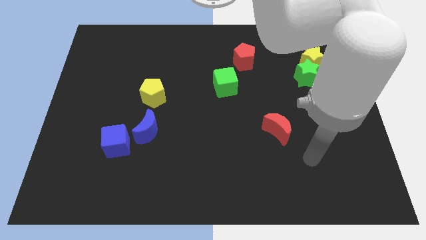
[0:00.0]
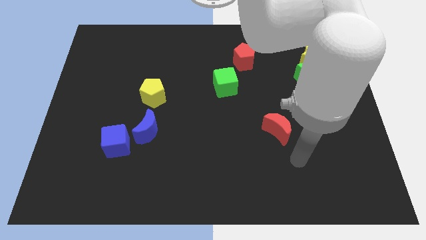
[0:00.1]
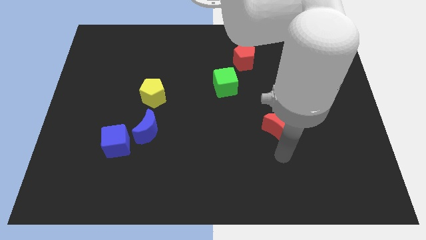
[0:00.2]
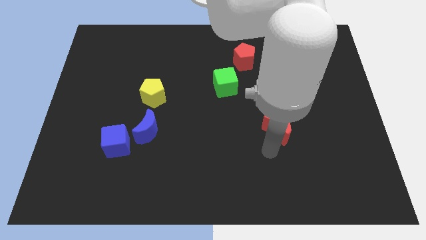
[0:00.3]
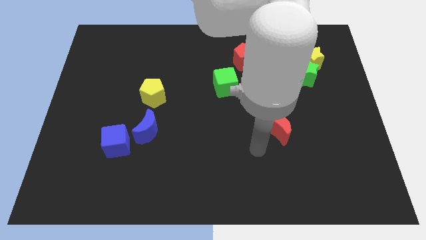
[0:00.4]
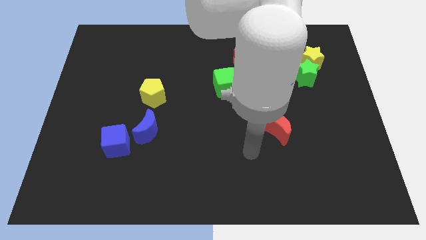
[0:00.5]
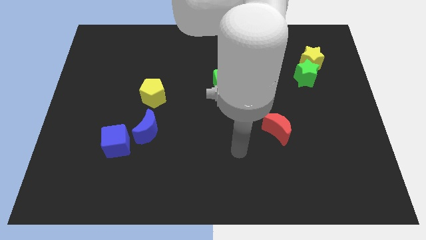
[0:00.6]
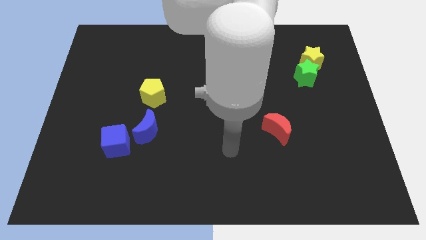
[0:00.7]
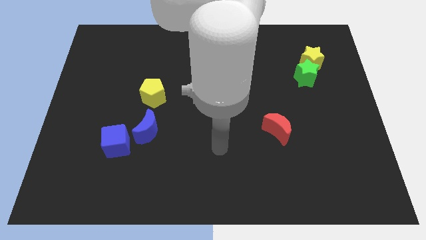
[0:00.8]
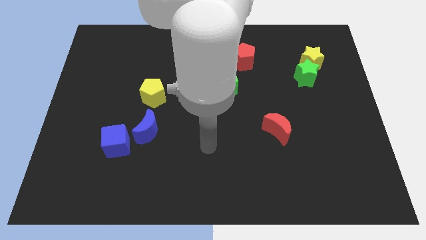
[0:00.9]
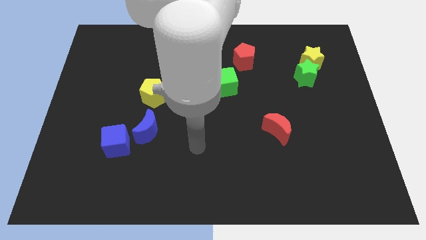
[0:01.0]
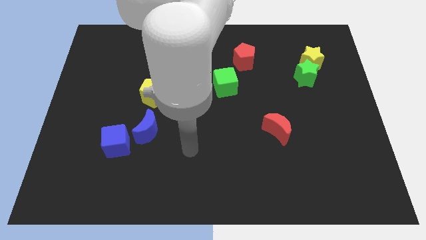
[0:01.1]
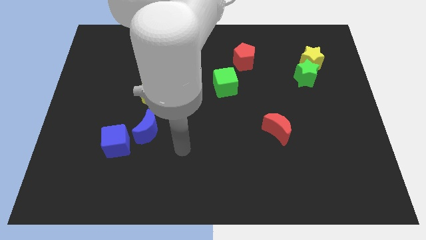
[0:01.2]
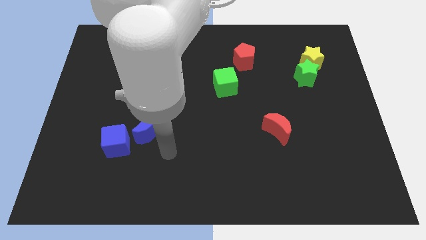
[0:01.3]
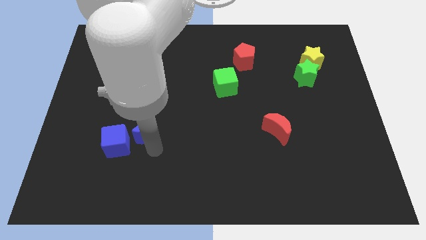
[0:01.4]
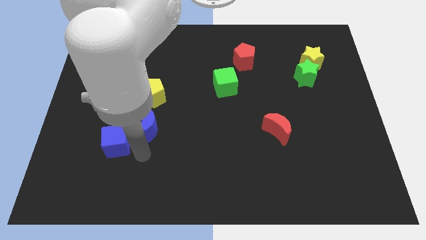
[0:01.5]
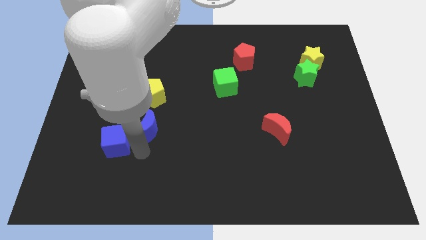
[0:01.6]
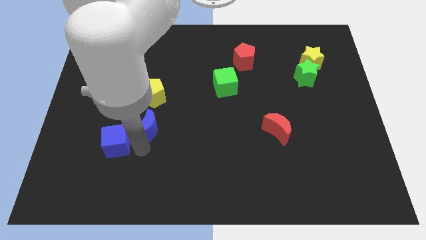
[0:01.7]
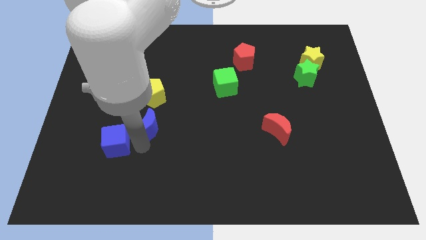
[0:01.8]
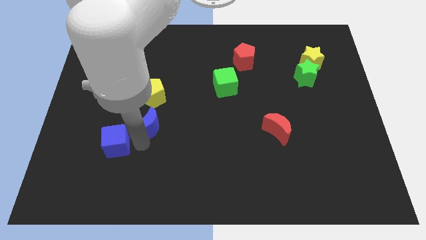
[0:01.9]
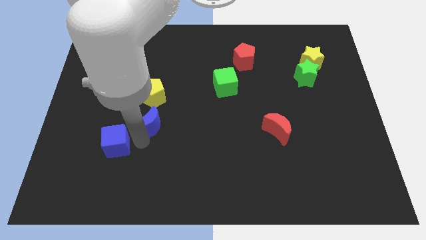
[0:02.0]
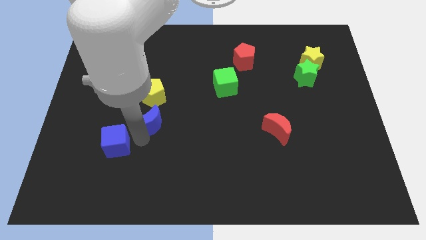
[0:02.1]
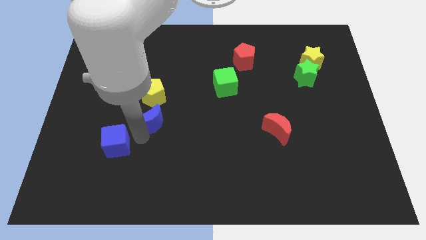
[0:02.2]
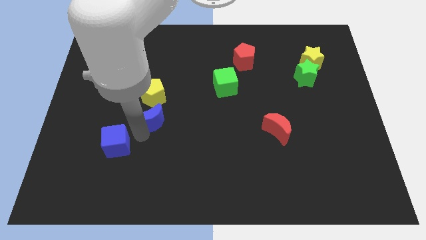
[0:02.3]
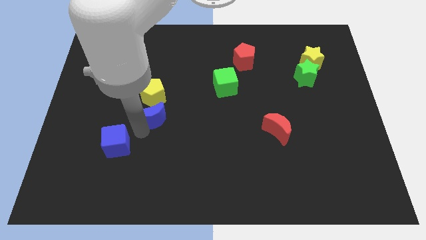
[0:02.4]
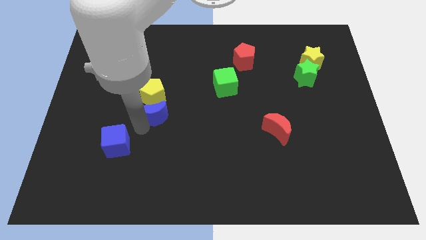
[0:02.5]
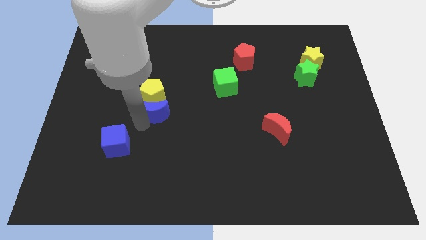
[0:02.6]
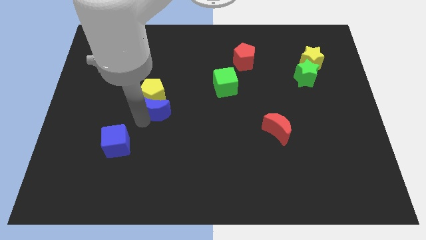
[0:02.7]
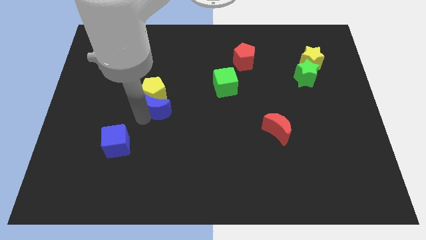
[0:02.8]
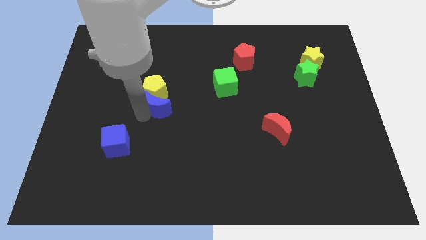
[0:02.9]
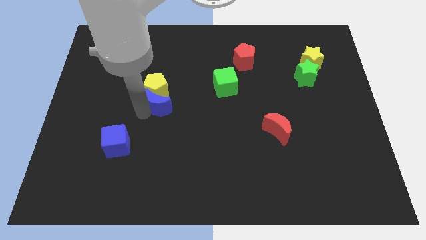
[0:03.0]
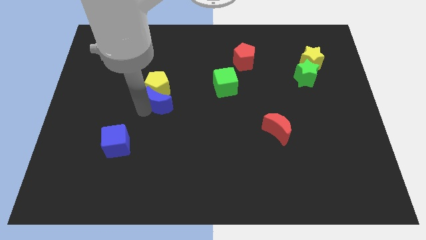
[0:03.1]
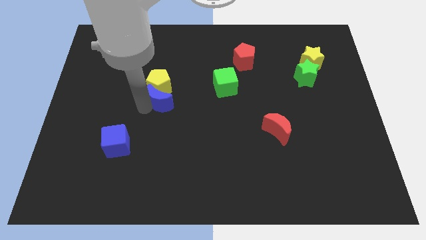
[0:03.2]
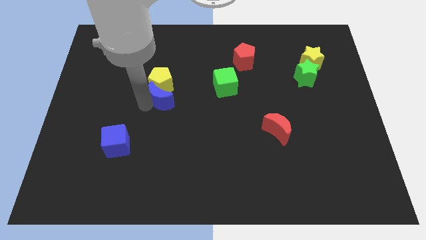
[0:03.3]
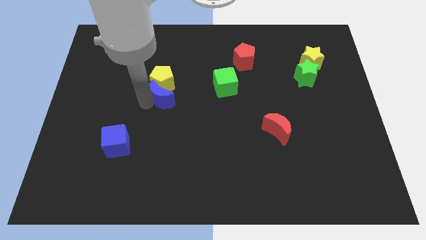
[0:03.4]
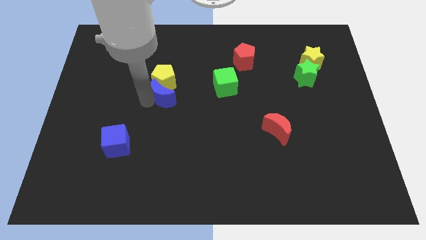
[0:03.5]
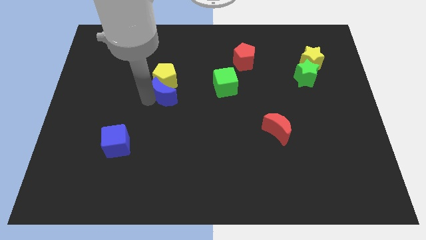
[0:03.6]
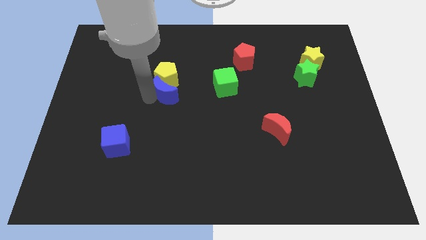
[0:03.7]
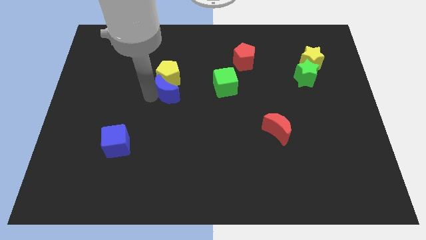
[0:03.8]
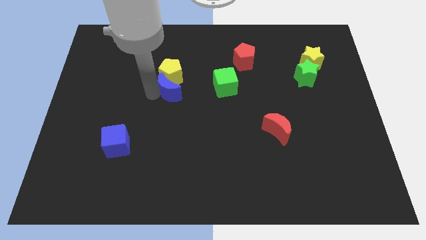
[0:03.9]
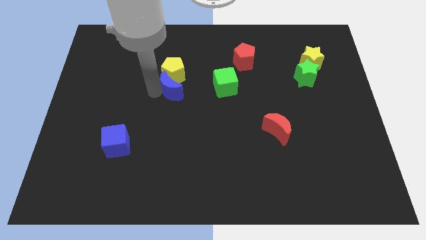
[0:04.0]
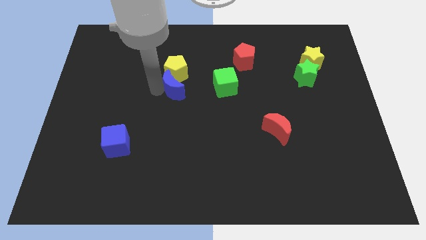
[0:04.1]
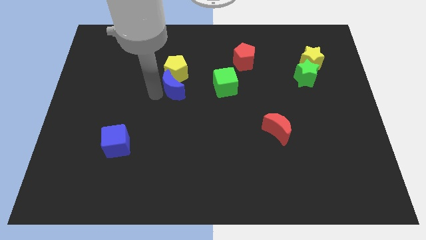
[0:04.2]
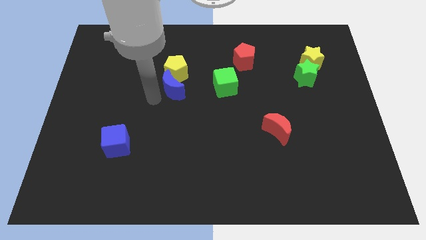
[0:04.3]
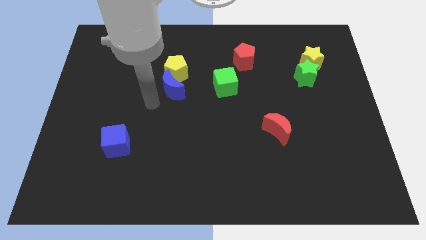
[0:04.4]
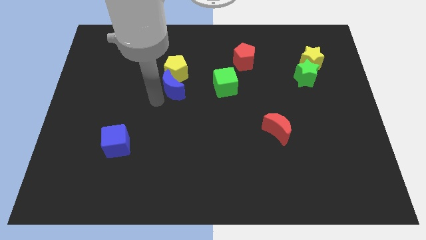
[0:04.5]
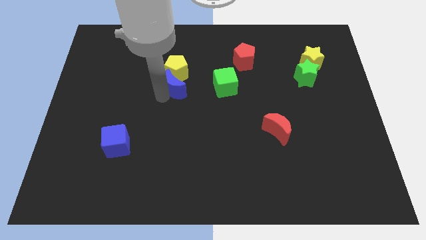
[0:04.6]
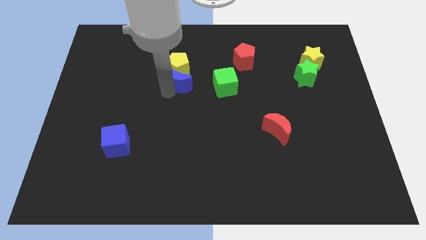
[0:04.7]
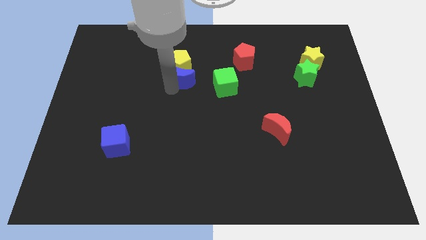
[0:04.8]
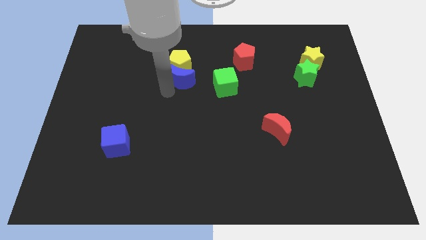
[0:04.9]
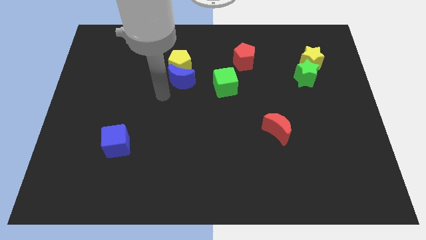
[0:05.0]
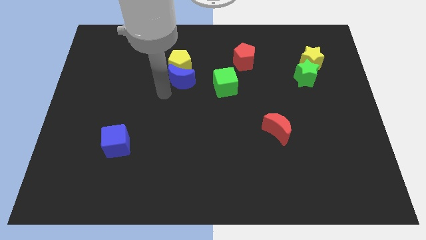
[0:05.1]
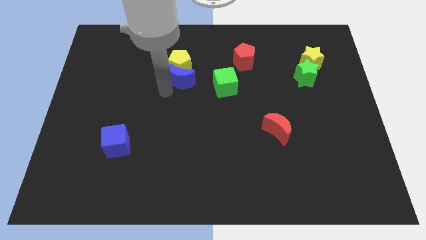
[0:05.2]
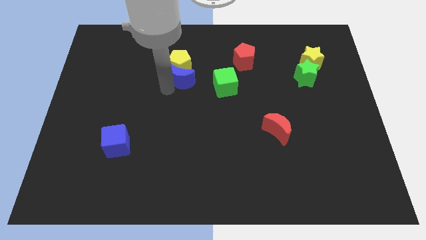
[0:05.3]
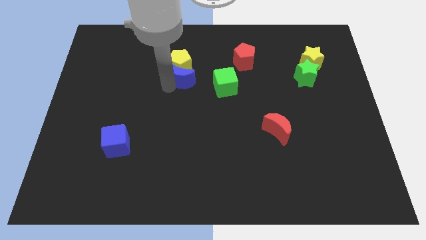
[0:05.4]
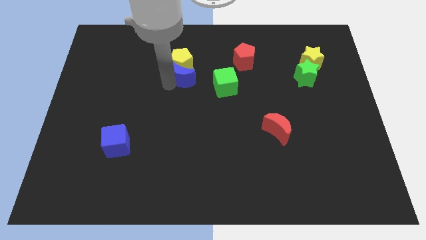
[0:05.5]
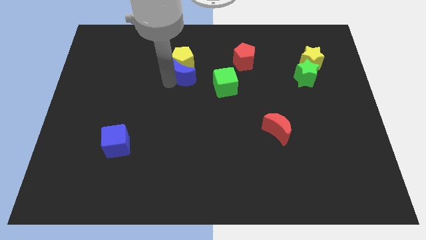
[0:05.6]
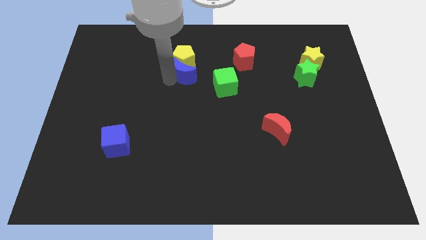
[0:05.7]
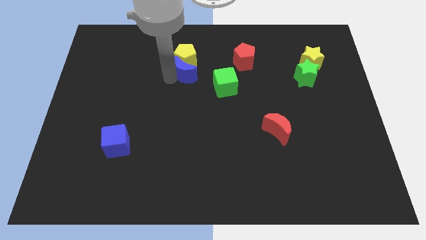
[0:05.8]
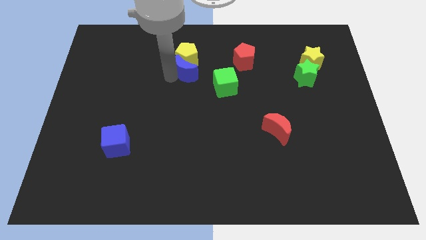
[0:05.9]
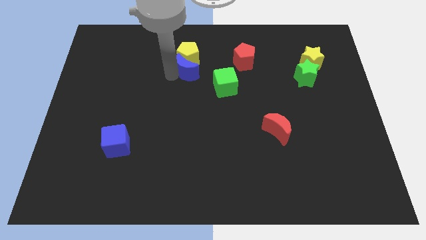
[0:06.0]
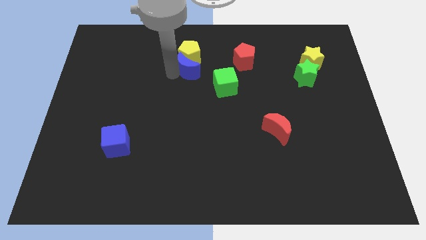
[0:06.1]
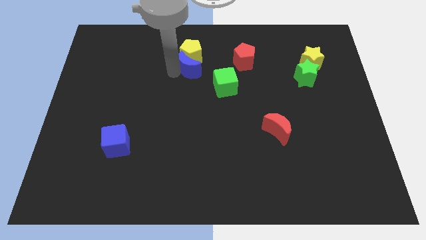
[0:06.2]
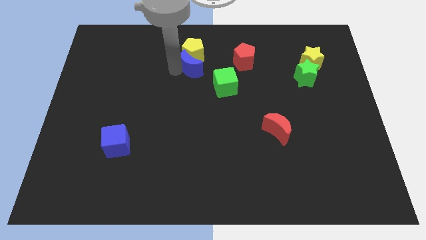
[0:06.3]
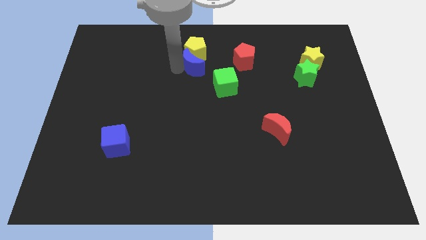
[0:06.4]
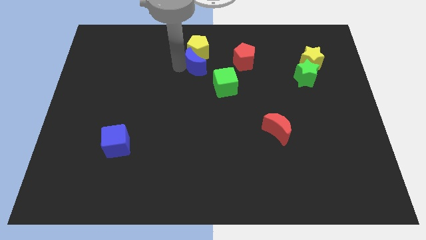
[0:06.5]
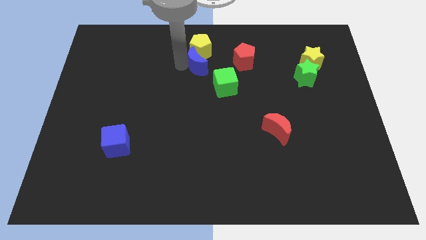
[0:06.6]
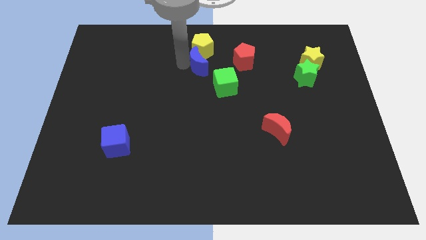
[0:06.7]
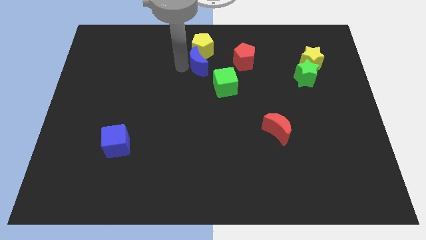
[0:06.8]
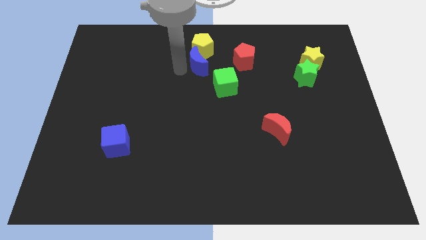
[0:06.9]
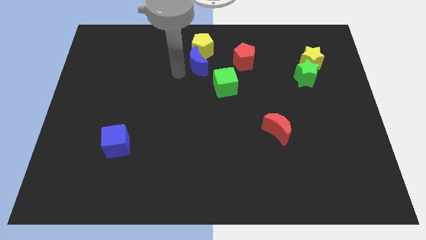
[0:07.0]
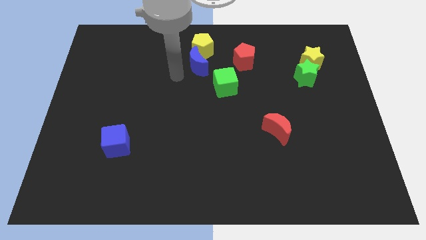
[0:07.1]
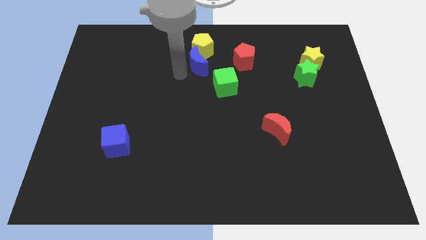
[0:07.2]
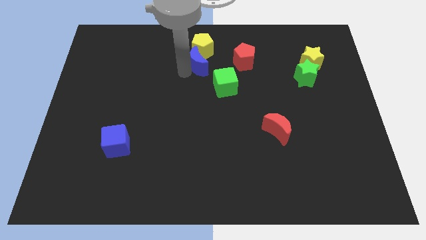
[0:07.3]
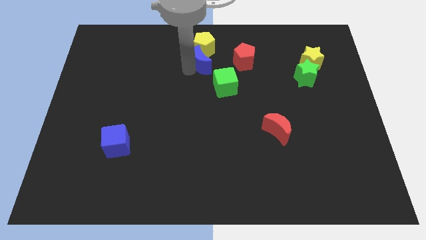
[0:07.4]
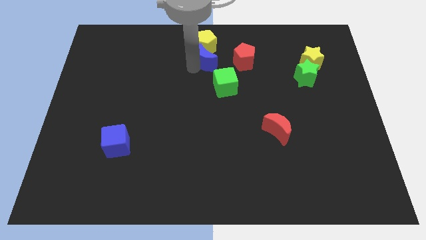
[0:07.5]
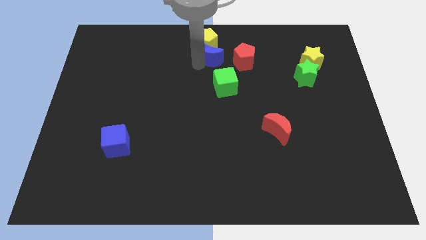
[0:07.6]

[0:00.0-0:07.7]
put the blue moon to the top of the green cube
